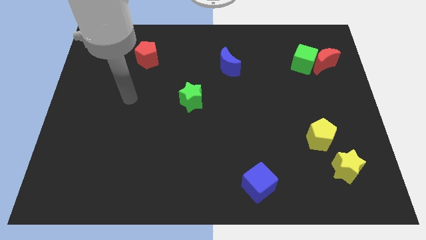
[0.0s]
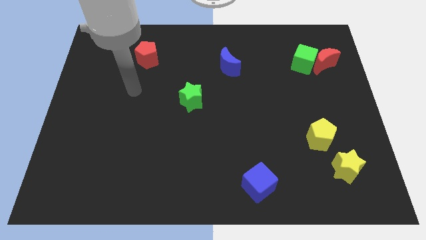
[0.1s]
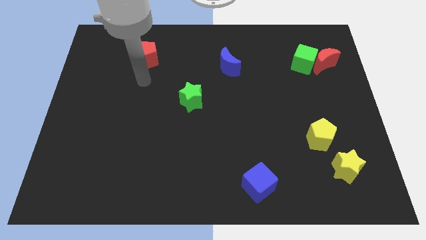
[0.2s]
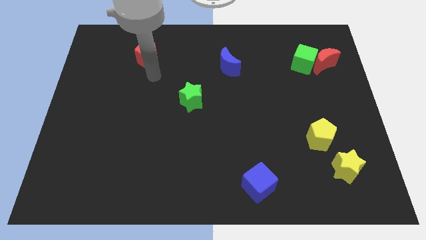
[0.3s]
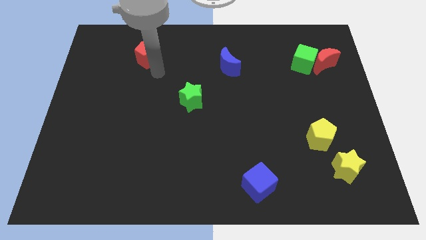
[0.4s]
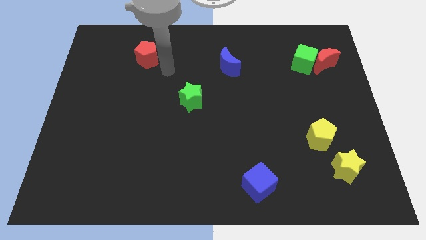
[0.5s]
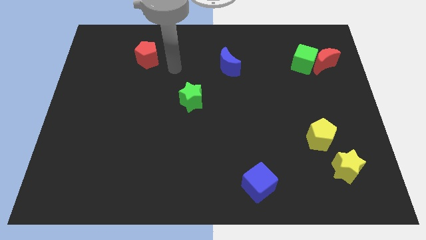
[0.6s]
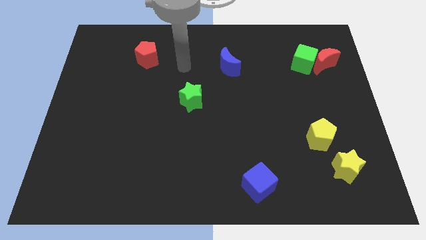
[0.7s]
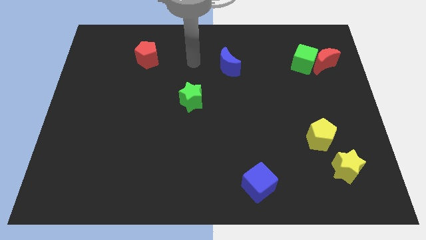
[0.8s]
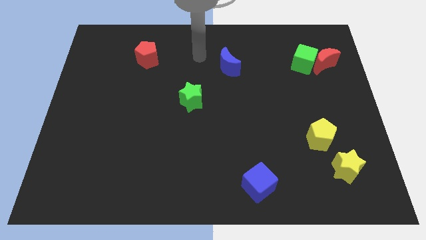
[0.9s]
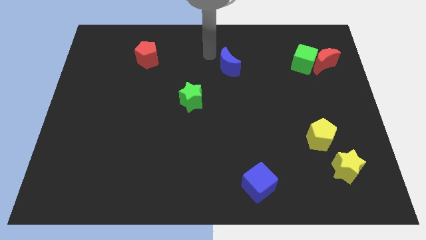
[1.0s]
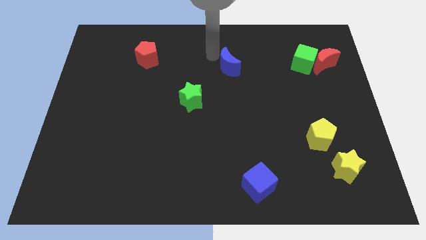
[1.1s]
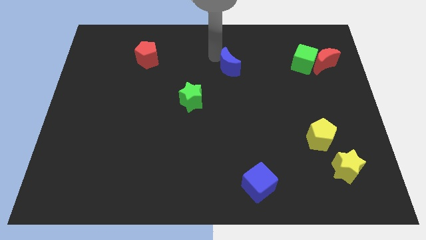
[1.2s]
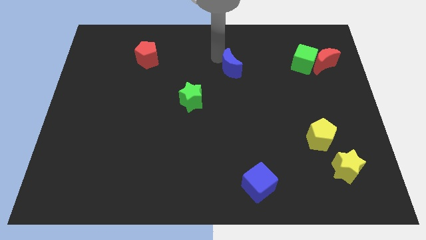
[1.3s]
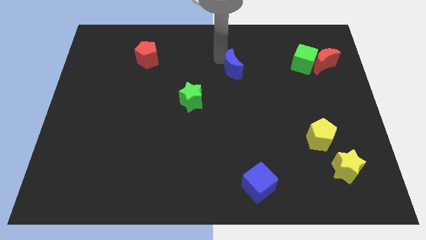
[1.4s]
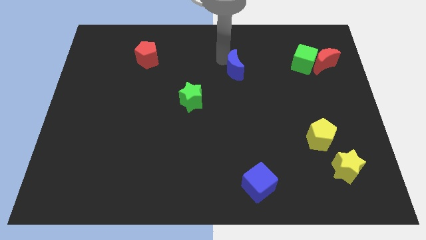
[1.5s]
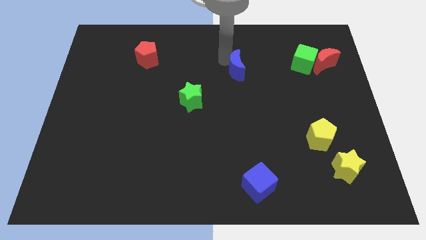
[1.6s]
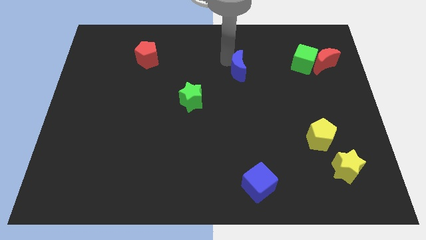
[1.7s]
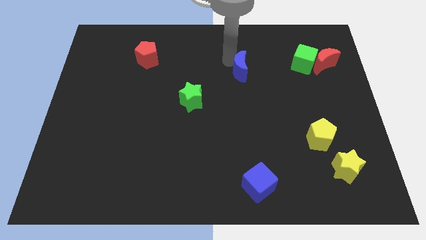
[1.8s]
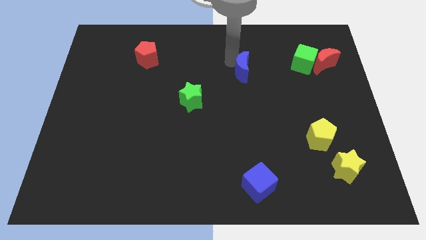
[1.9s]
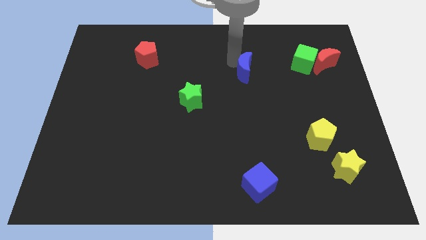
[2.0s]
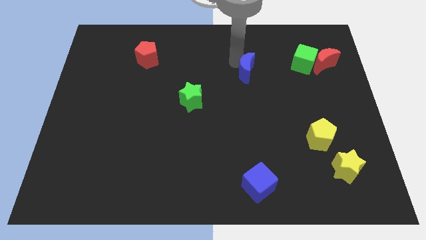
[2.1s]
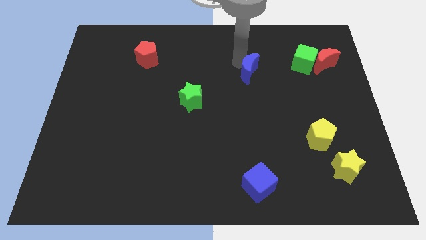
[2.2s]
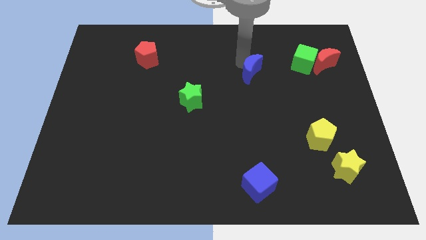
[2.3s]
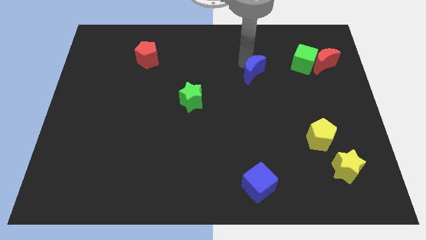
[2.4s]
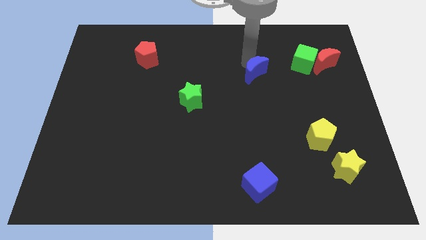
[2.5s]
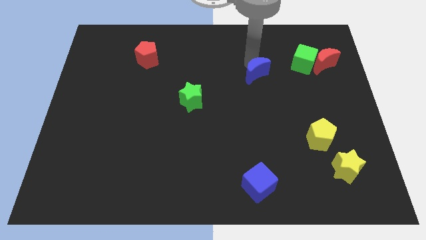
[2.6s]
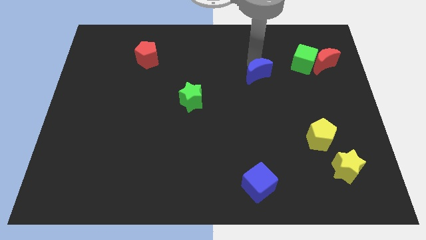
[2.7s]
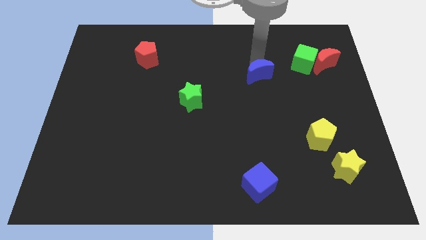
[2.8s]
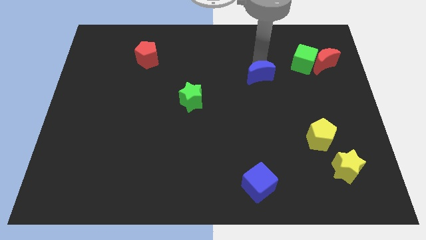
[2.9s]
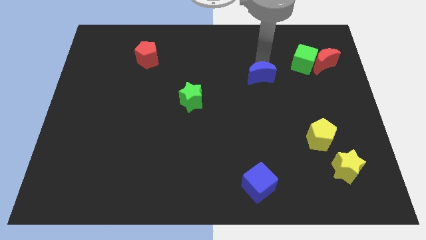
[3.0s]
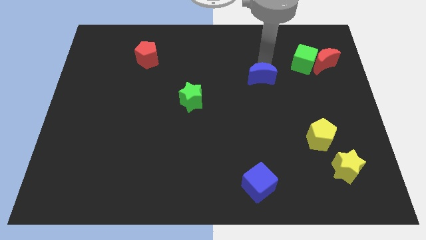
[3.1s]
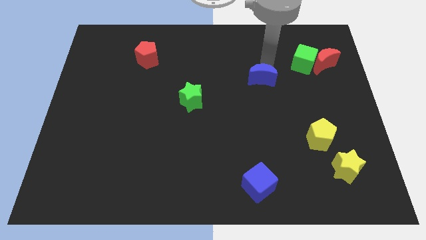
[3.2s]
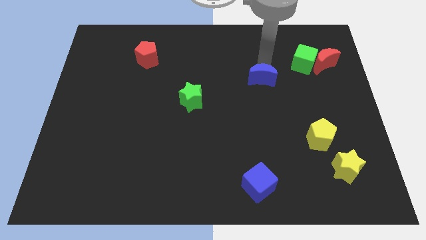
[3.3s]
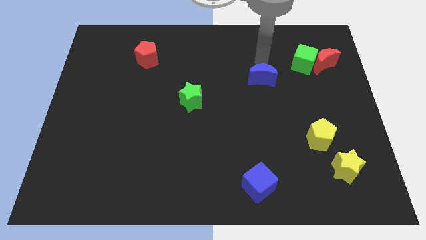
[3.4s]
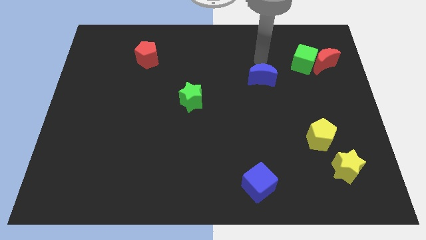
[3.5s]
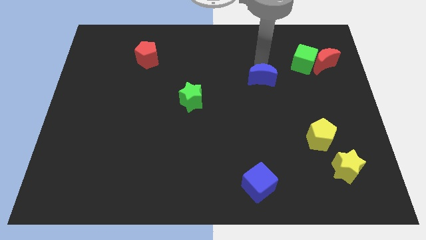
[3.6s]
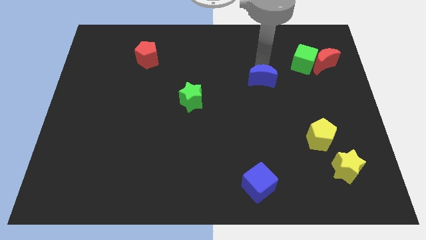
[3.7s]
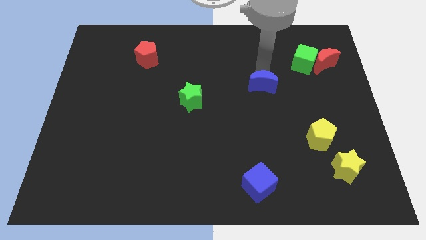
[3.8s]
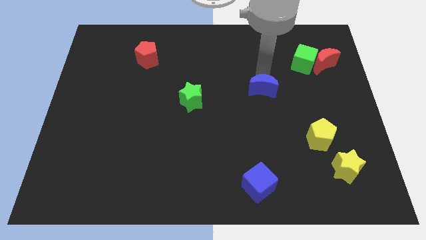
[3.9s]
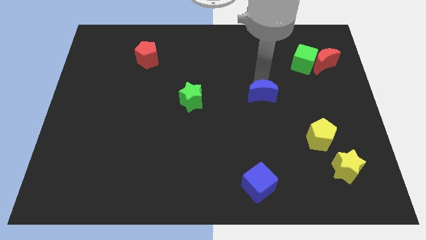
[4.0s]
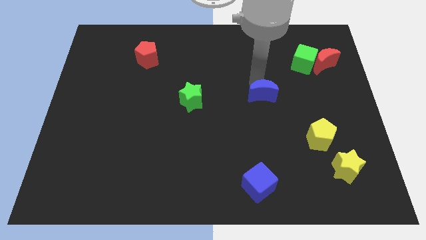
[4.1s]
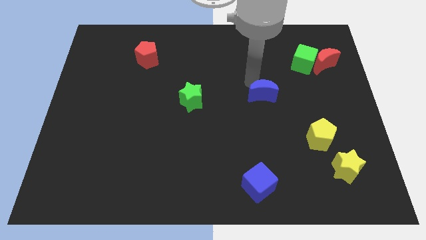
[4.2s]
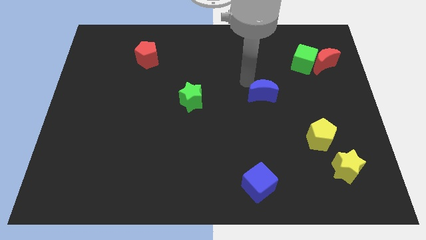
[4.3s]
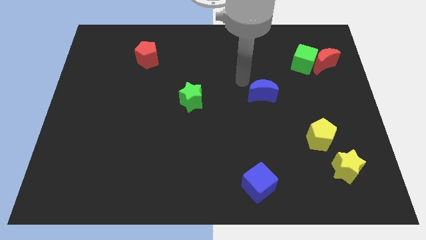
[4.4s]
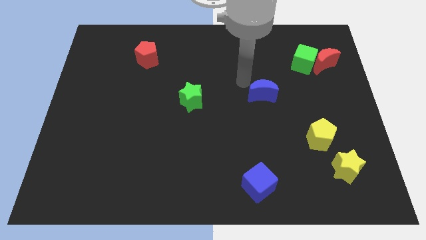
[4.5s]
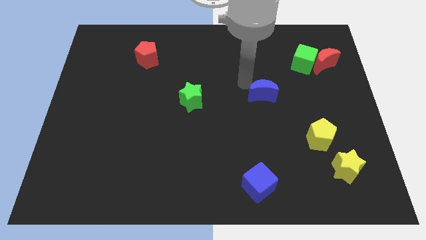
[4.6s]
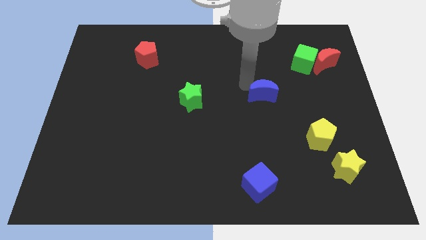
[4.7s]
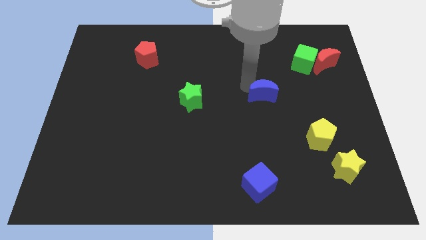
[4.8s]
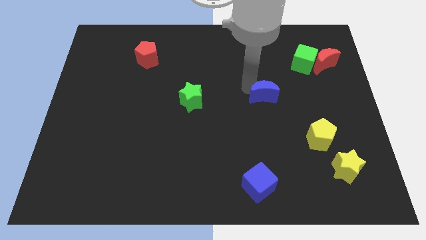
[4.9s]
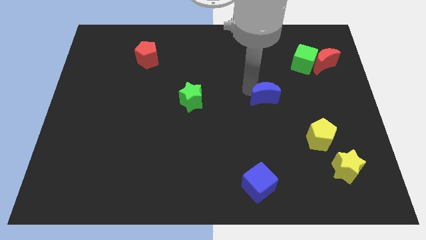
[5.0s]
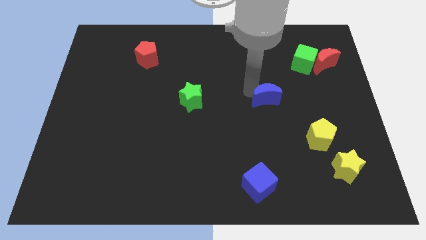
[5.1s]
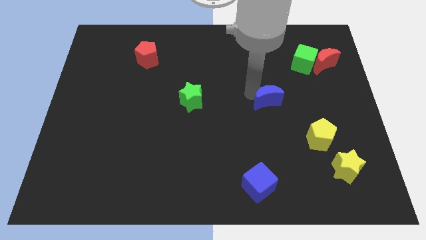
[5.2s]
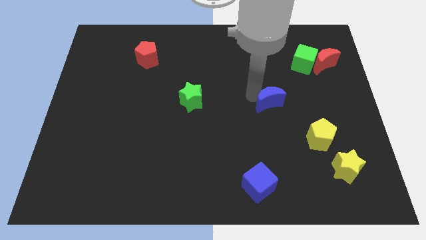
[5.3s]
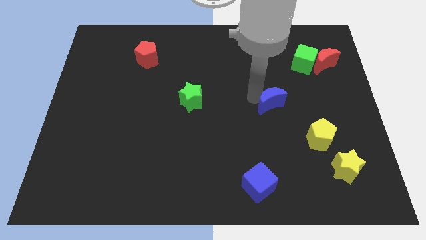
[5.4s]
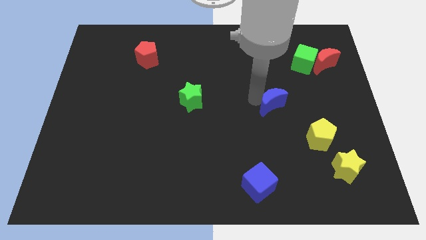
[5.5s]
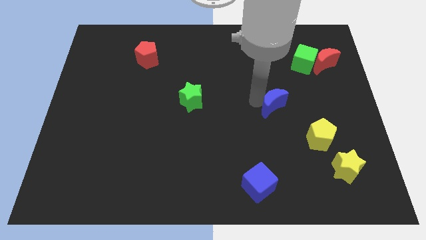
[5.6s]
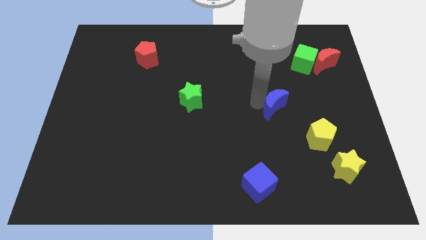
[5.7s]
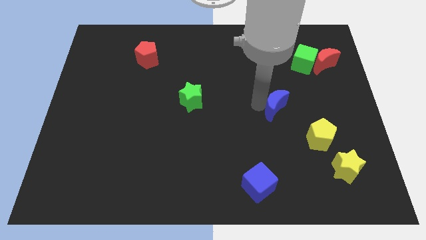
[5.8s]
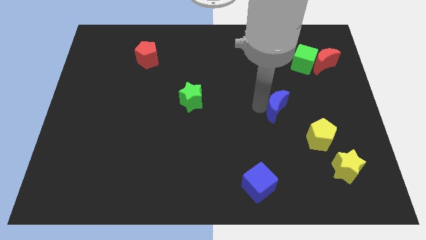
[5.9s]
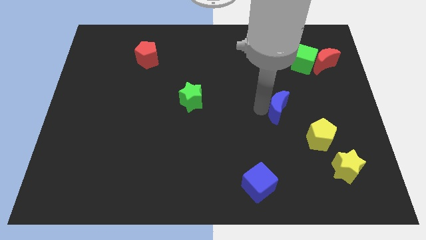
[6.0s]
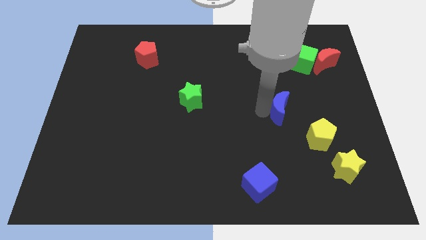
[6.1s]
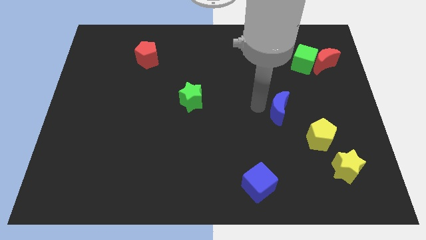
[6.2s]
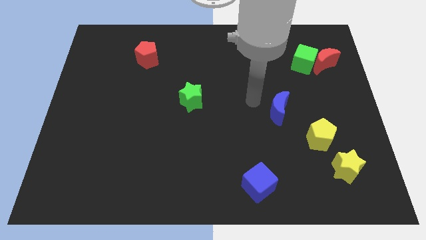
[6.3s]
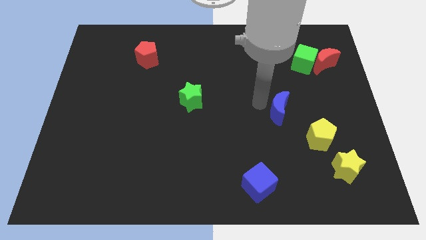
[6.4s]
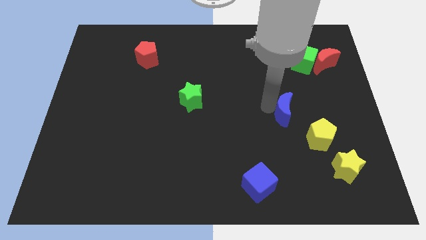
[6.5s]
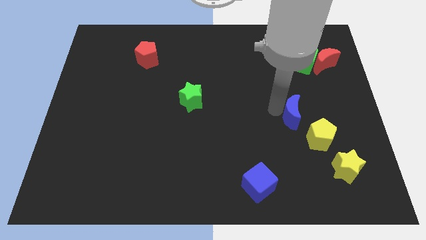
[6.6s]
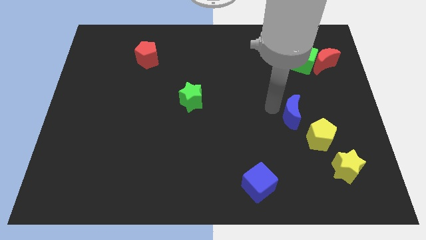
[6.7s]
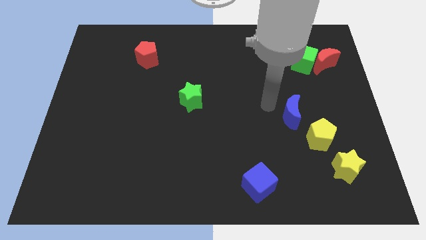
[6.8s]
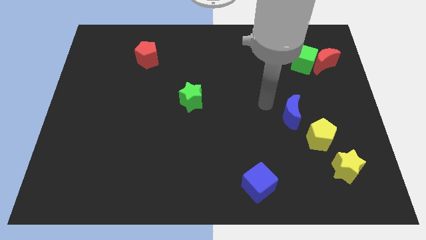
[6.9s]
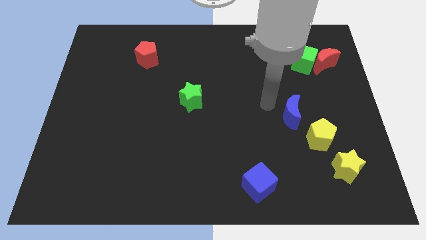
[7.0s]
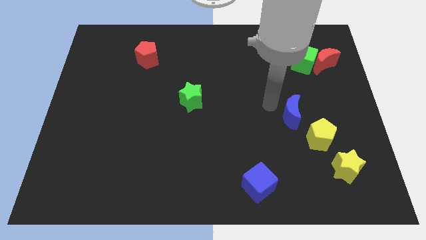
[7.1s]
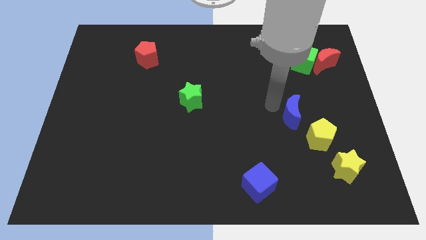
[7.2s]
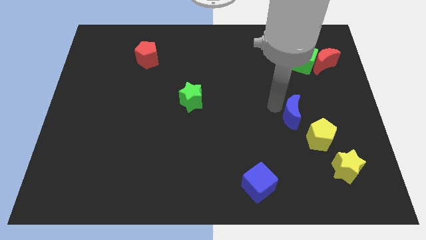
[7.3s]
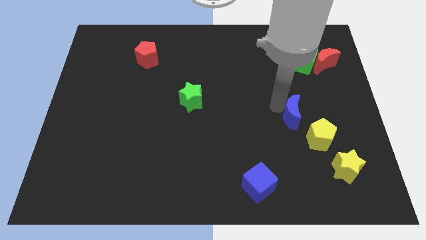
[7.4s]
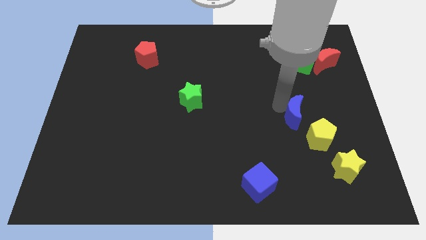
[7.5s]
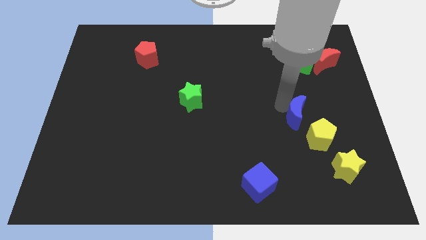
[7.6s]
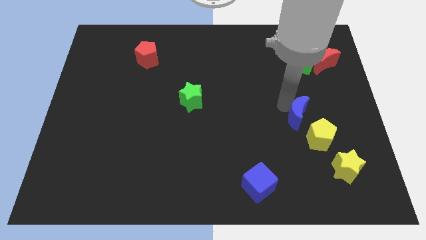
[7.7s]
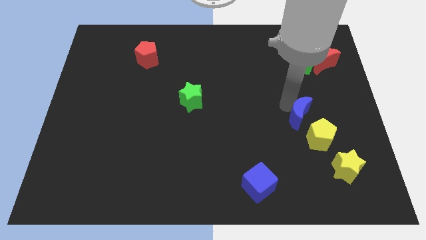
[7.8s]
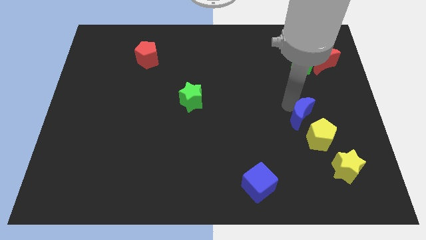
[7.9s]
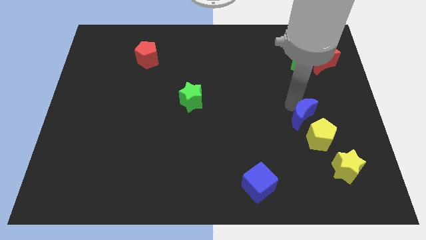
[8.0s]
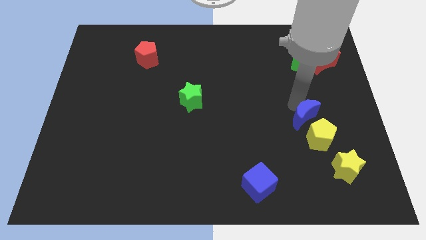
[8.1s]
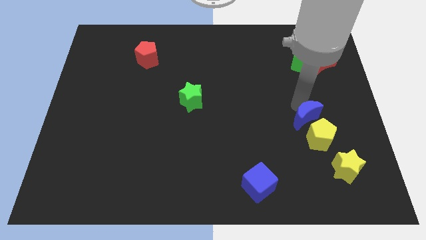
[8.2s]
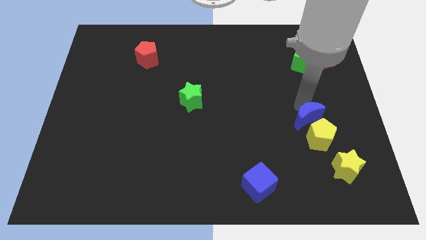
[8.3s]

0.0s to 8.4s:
push the blue moon towards the yellow pentagon
